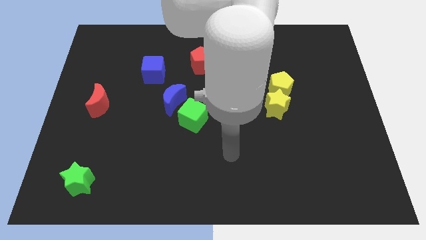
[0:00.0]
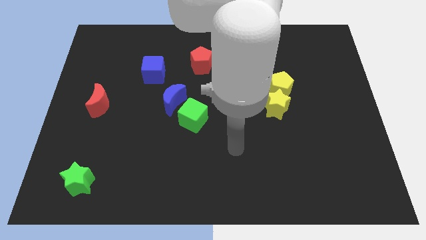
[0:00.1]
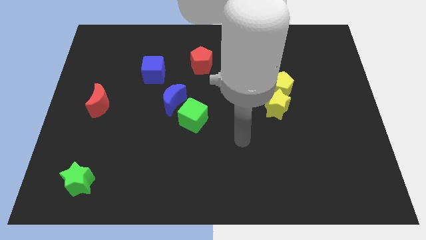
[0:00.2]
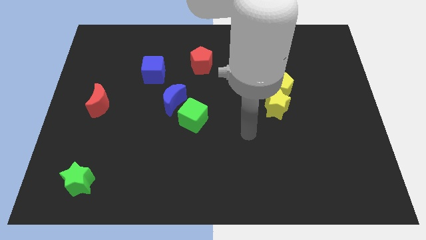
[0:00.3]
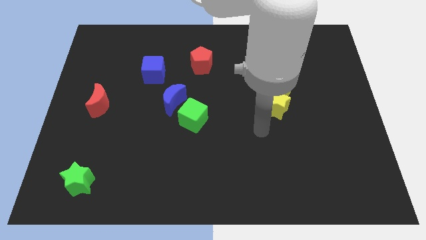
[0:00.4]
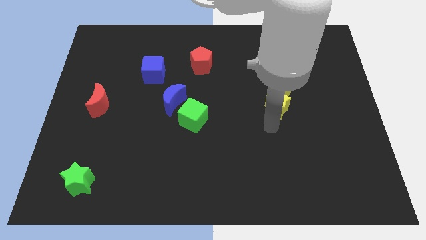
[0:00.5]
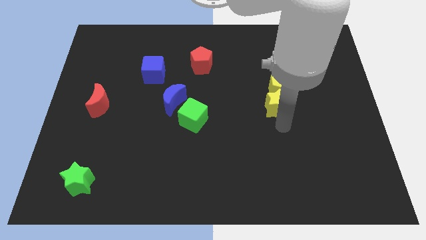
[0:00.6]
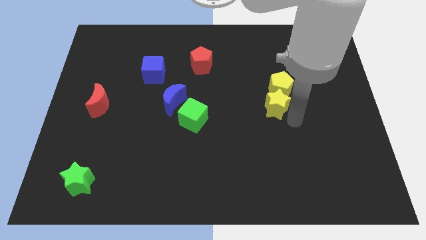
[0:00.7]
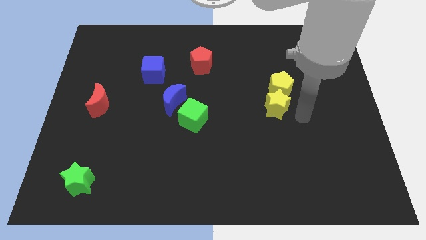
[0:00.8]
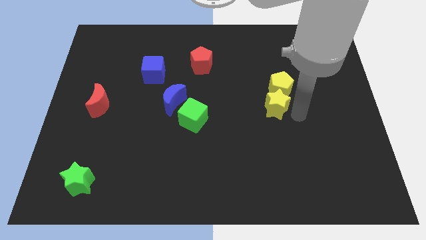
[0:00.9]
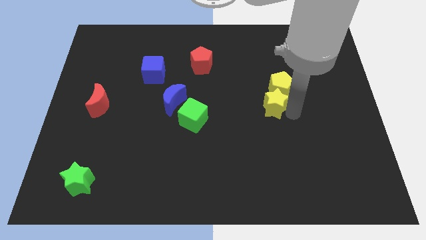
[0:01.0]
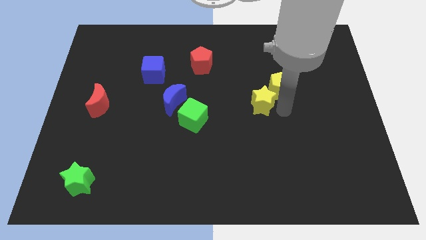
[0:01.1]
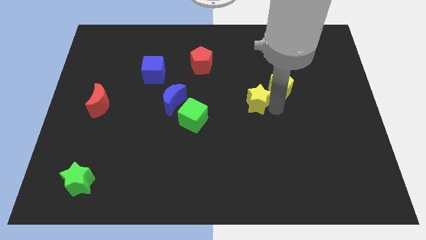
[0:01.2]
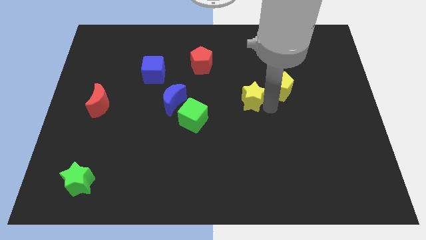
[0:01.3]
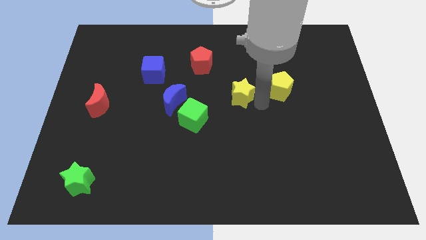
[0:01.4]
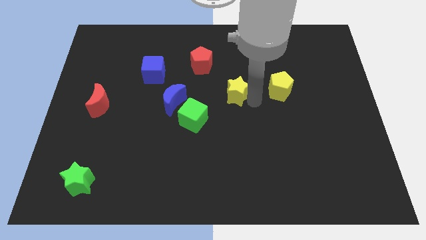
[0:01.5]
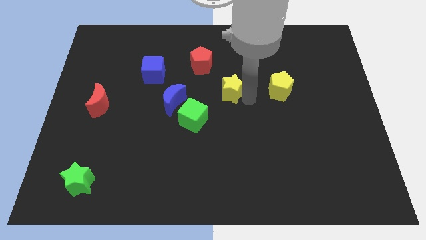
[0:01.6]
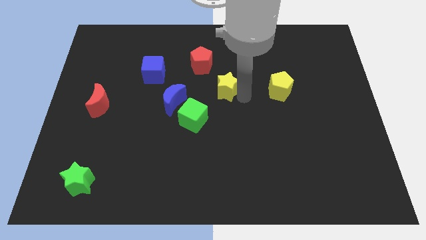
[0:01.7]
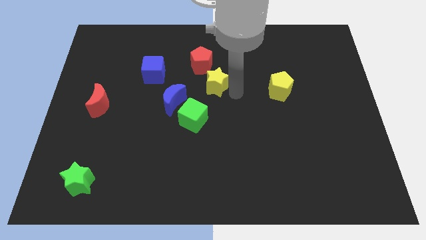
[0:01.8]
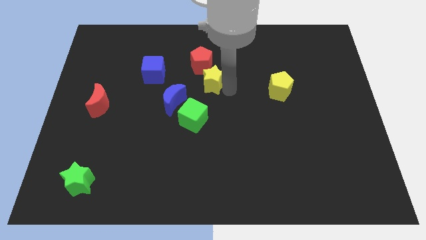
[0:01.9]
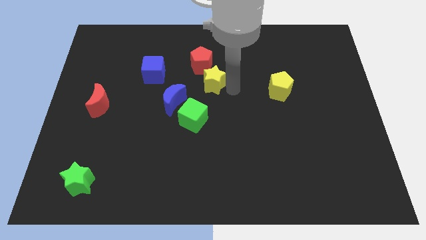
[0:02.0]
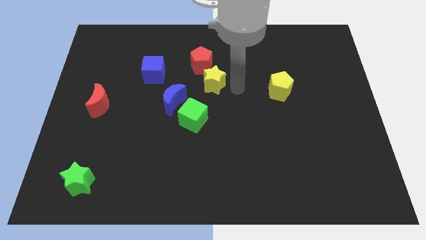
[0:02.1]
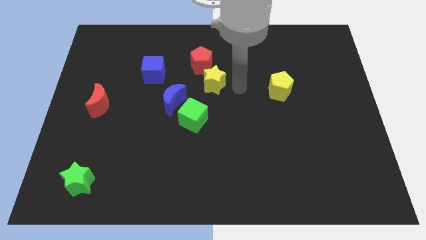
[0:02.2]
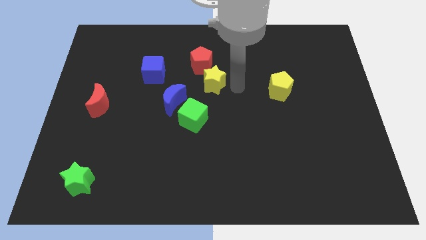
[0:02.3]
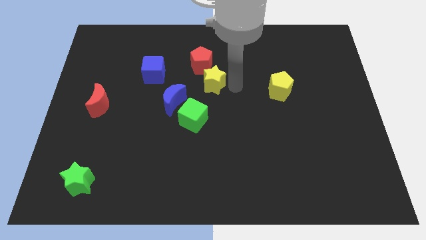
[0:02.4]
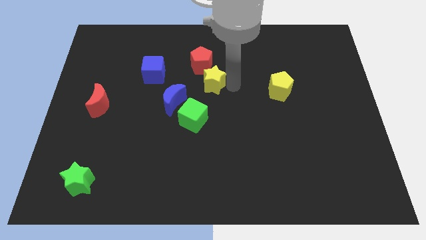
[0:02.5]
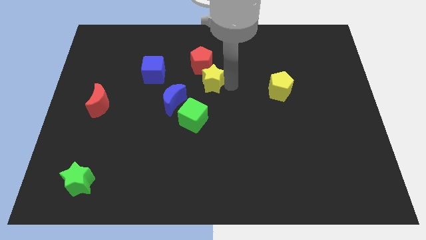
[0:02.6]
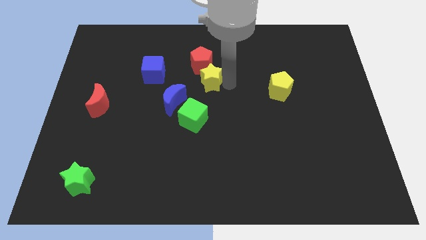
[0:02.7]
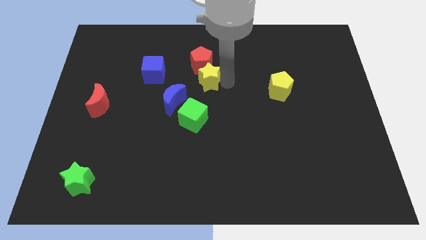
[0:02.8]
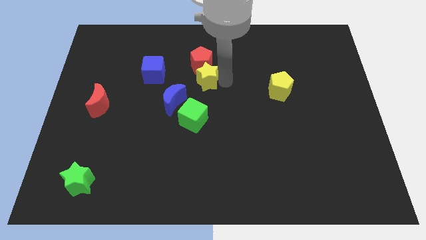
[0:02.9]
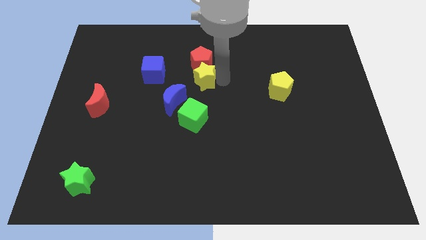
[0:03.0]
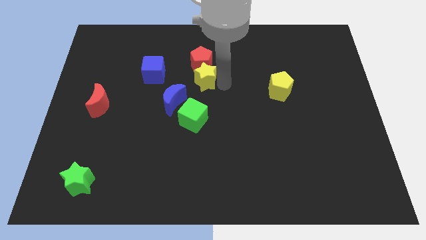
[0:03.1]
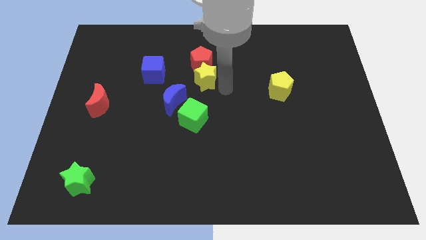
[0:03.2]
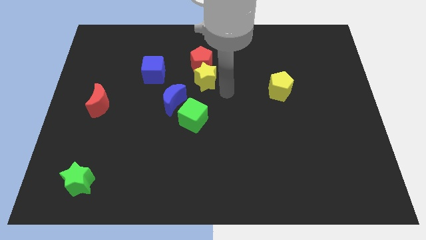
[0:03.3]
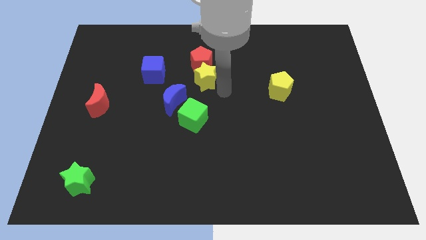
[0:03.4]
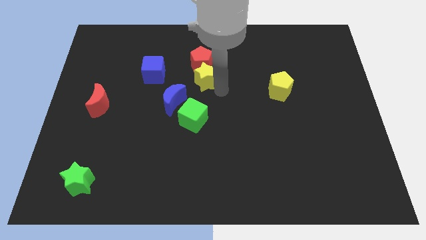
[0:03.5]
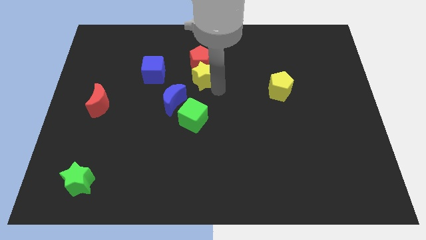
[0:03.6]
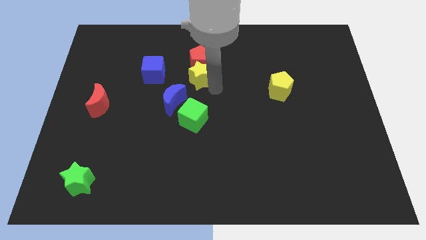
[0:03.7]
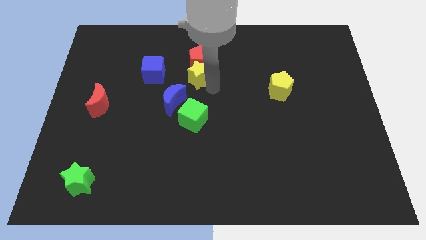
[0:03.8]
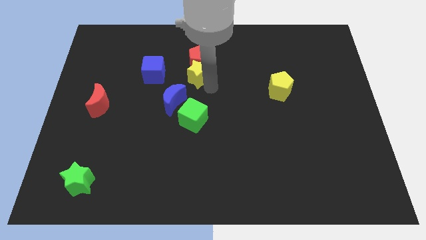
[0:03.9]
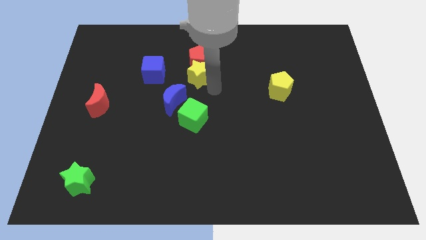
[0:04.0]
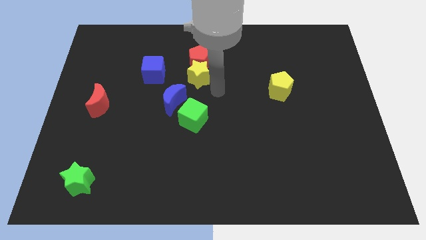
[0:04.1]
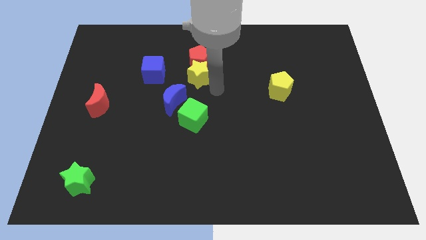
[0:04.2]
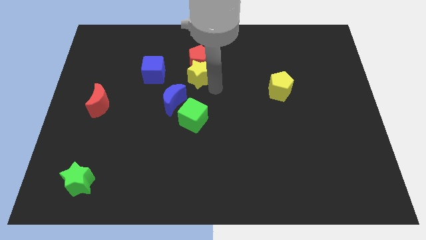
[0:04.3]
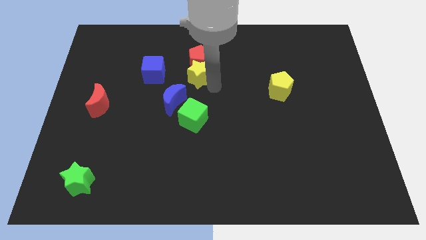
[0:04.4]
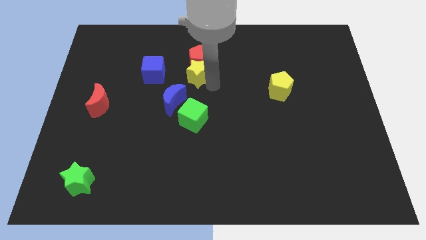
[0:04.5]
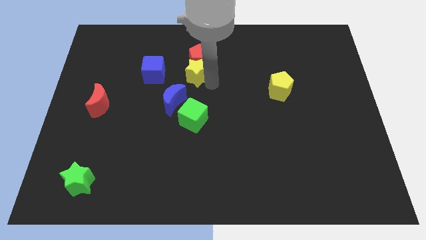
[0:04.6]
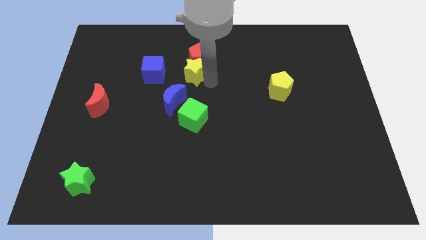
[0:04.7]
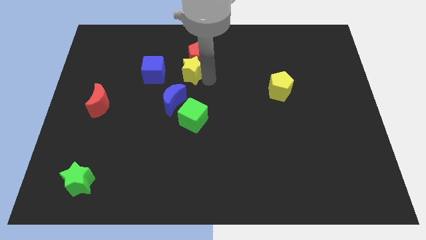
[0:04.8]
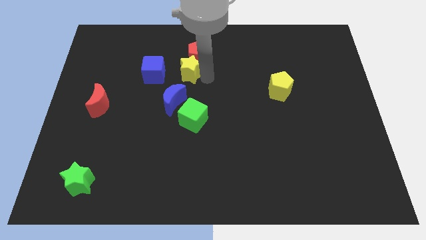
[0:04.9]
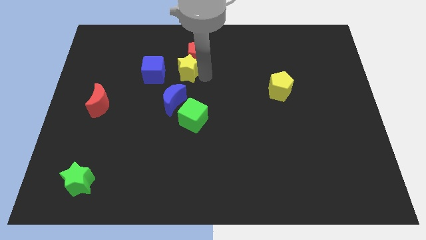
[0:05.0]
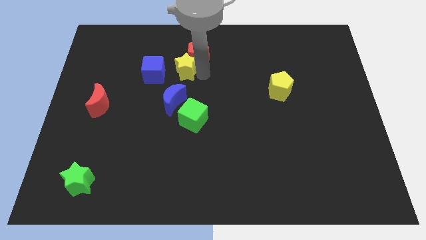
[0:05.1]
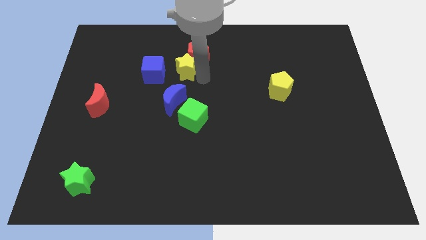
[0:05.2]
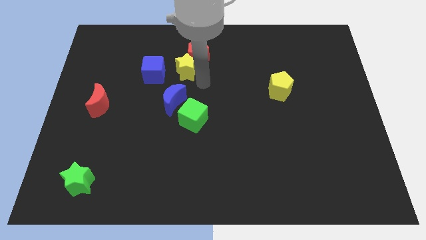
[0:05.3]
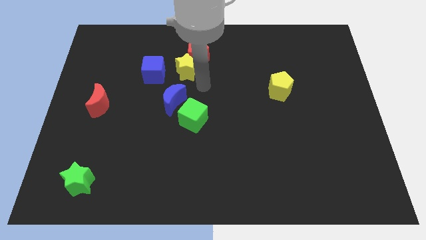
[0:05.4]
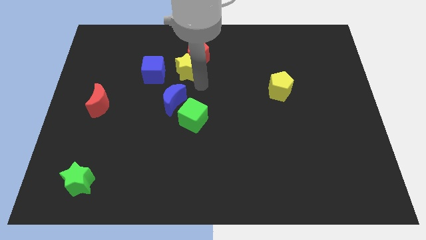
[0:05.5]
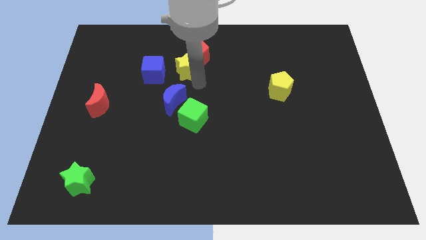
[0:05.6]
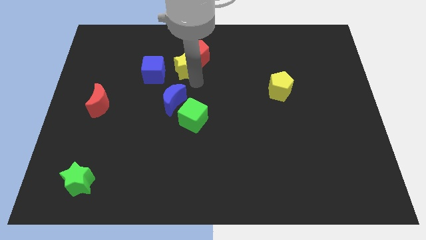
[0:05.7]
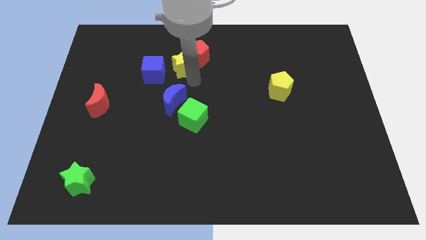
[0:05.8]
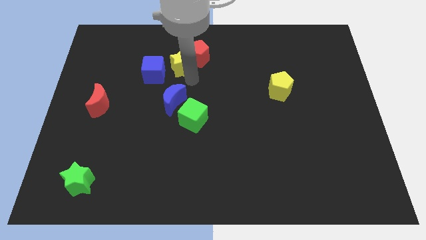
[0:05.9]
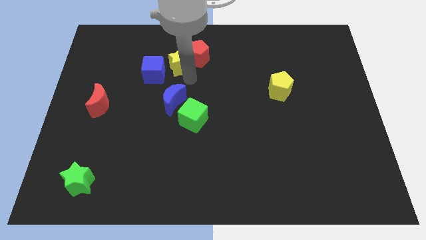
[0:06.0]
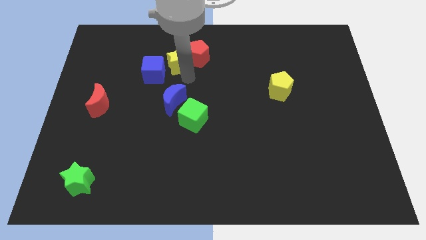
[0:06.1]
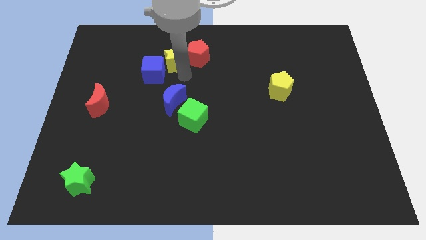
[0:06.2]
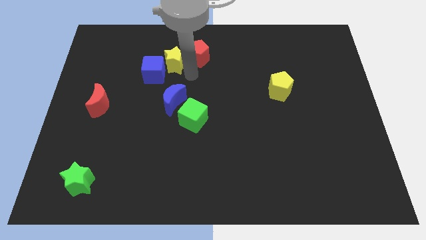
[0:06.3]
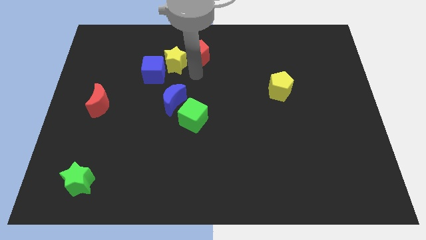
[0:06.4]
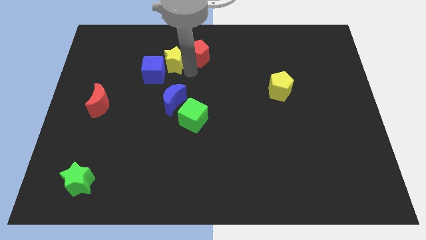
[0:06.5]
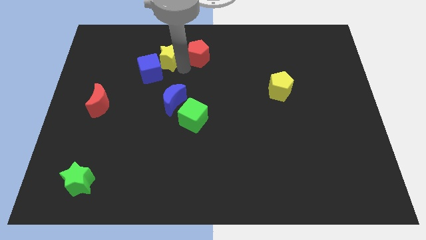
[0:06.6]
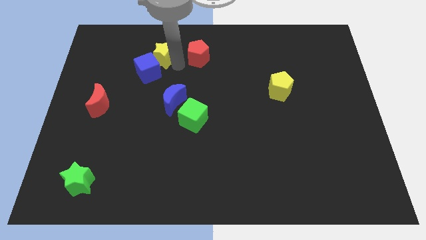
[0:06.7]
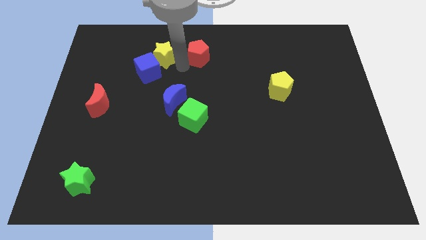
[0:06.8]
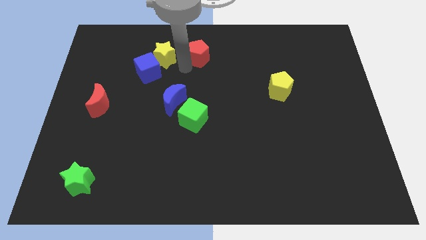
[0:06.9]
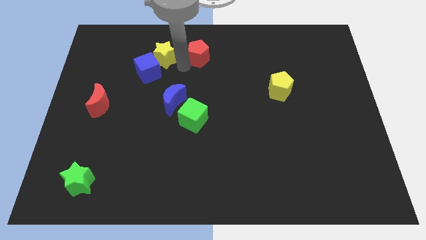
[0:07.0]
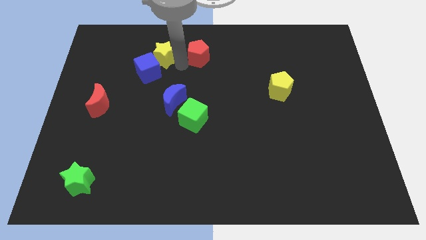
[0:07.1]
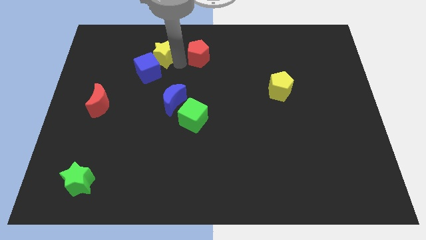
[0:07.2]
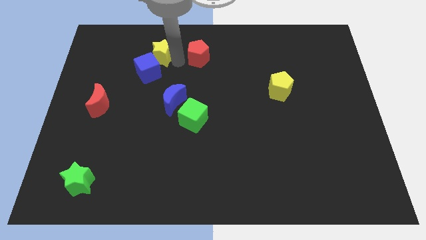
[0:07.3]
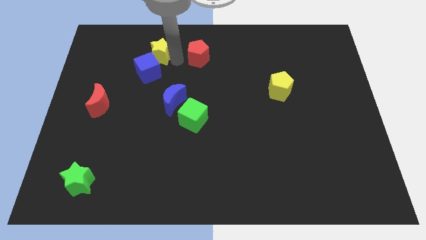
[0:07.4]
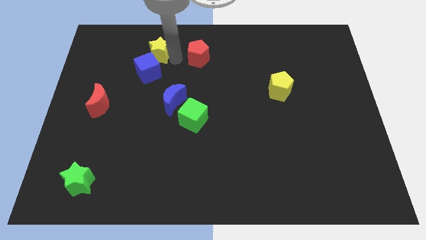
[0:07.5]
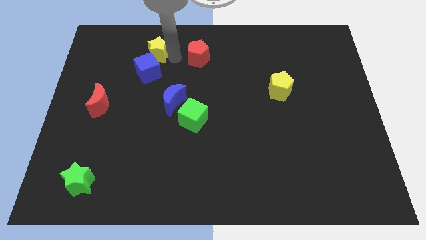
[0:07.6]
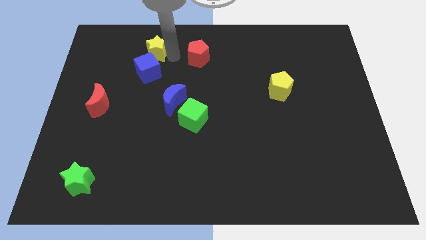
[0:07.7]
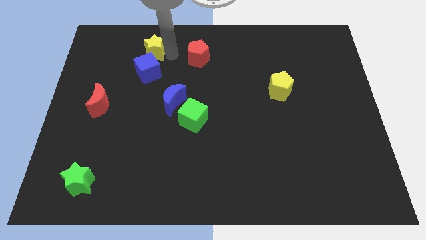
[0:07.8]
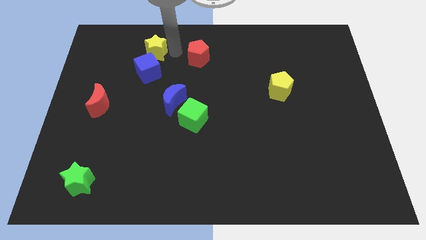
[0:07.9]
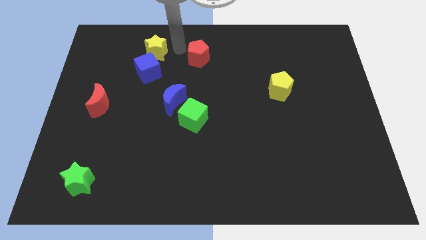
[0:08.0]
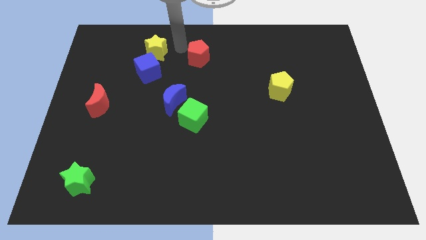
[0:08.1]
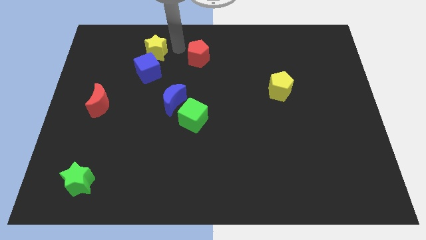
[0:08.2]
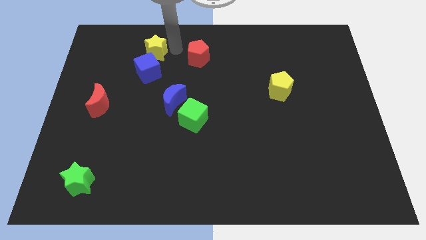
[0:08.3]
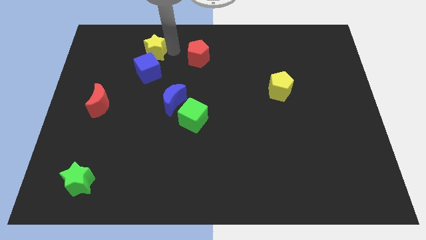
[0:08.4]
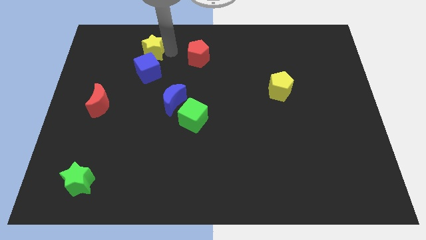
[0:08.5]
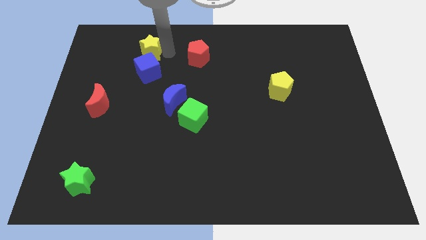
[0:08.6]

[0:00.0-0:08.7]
move the yellow star to the top left side of the blue cube
